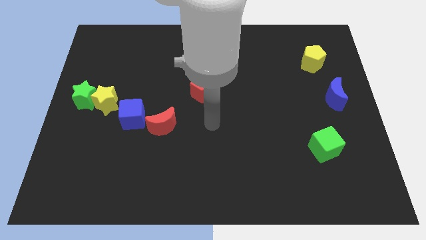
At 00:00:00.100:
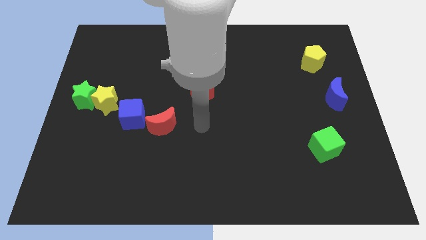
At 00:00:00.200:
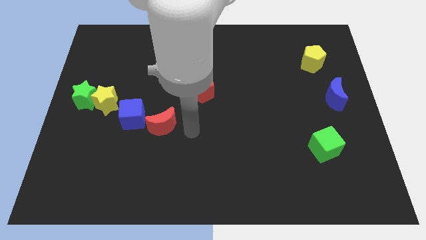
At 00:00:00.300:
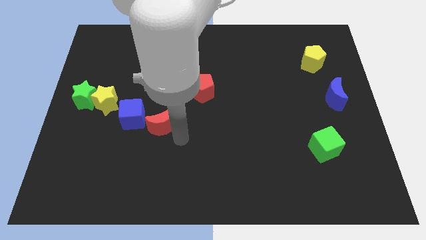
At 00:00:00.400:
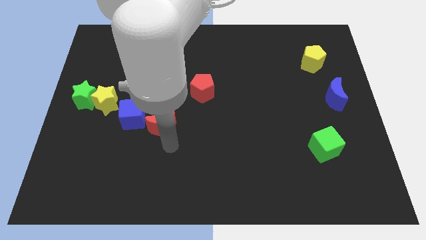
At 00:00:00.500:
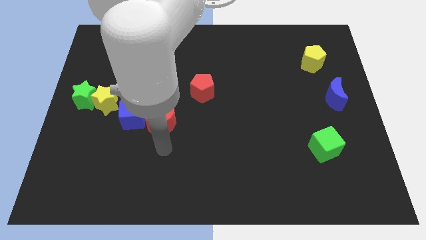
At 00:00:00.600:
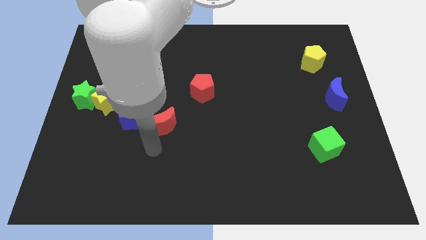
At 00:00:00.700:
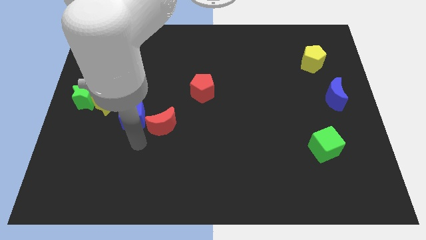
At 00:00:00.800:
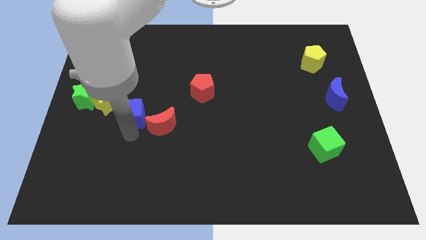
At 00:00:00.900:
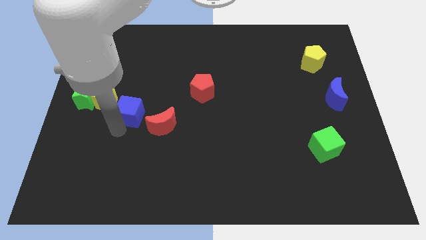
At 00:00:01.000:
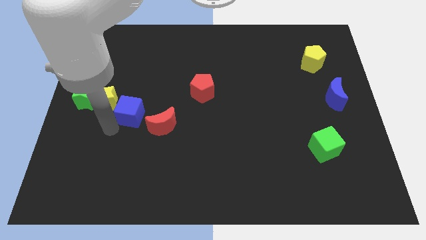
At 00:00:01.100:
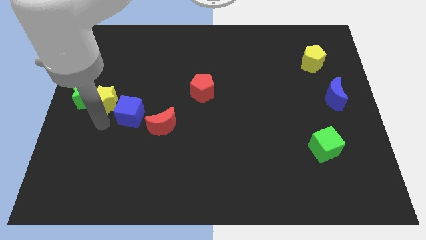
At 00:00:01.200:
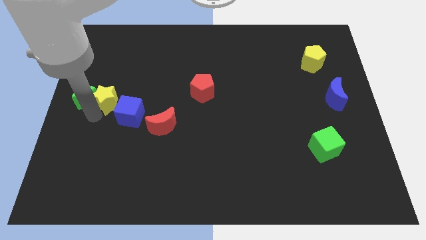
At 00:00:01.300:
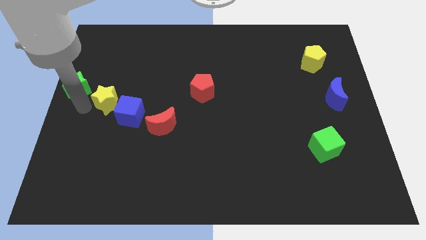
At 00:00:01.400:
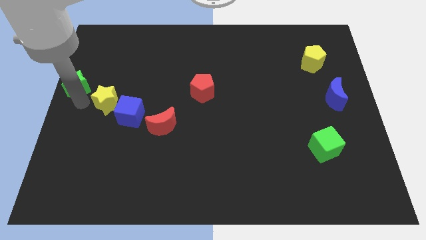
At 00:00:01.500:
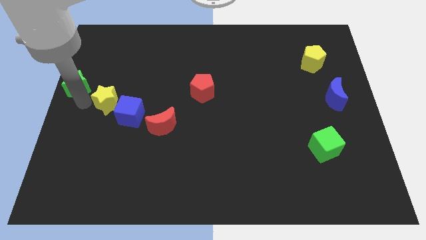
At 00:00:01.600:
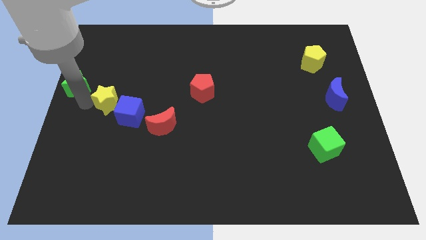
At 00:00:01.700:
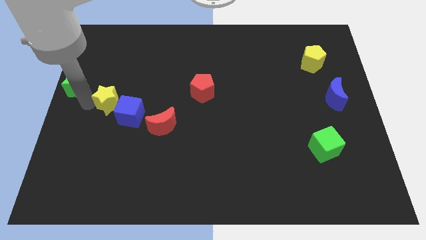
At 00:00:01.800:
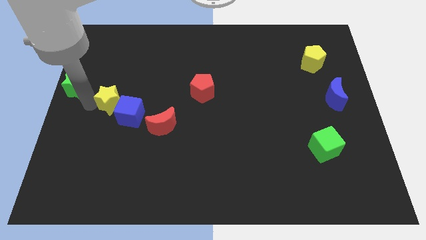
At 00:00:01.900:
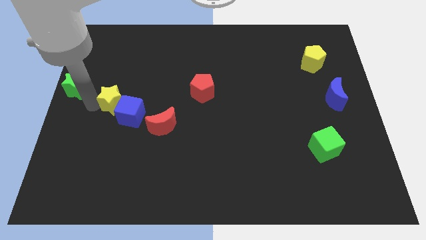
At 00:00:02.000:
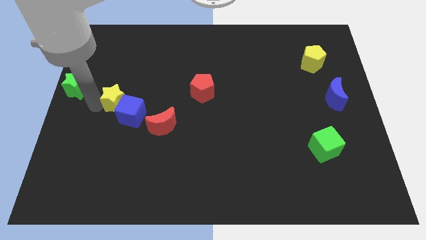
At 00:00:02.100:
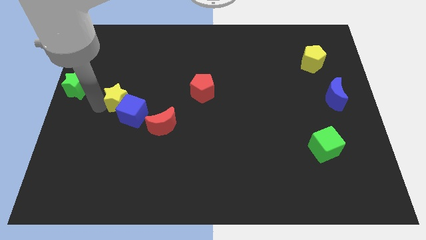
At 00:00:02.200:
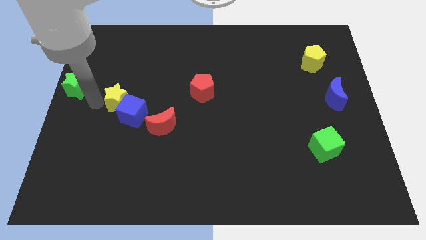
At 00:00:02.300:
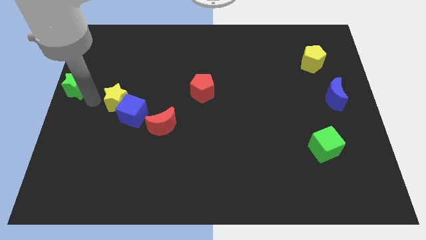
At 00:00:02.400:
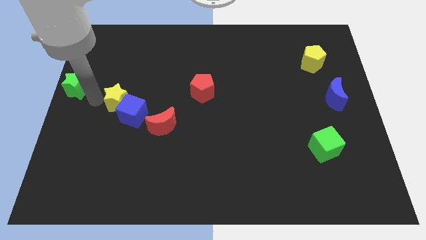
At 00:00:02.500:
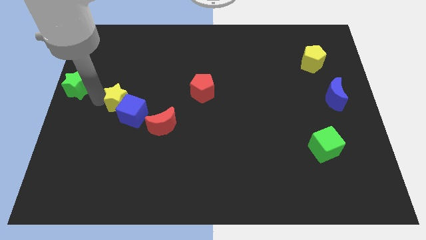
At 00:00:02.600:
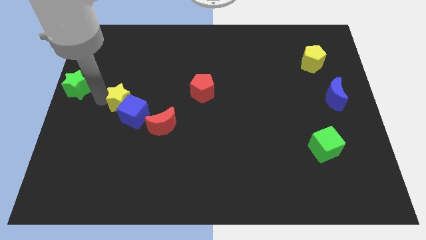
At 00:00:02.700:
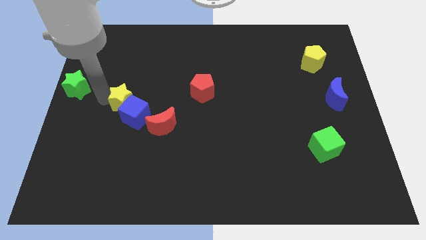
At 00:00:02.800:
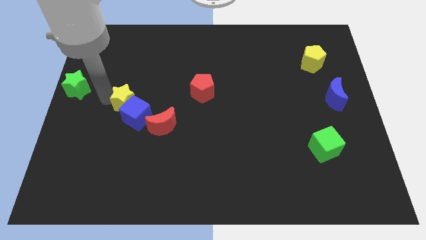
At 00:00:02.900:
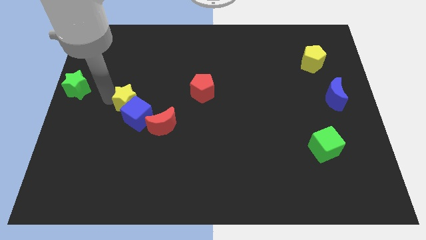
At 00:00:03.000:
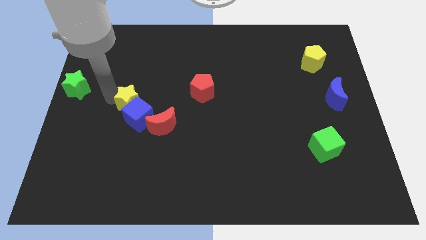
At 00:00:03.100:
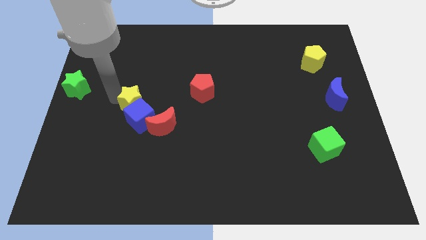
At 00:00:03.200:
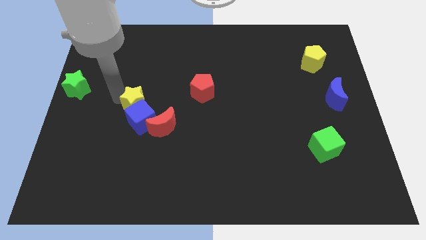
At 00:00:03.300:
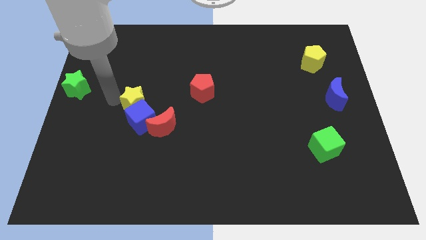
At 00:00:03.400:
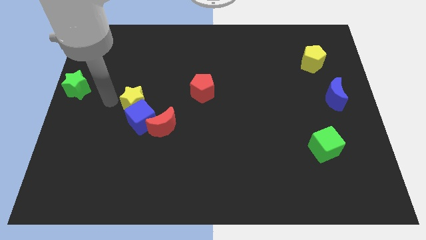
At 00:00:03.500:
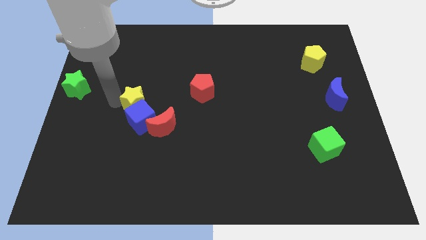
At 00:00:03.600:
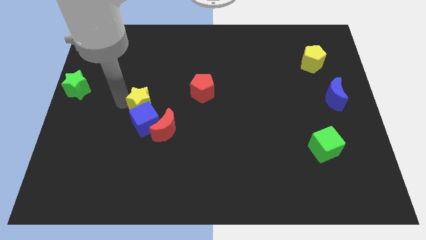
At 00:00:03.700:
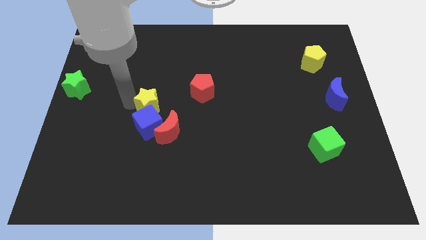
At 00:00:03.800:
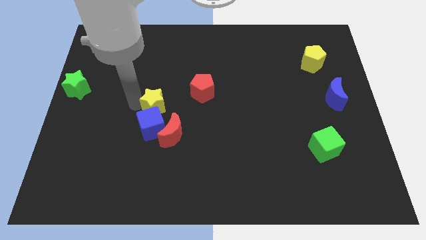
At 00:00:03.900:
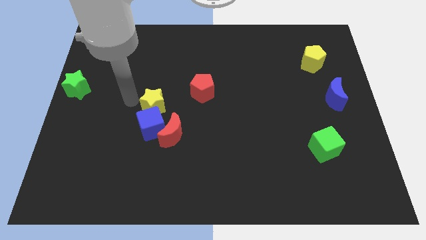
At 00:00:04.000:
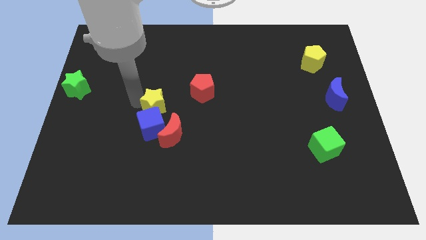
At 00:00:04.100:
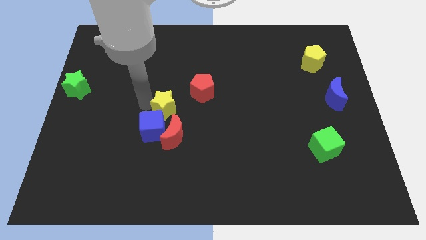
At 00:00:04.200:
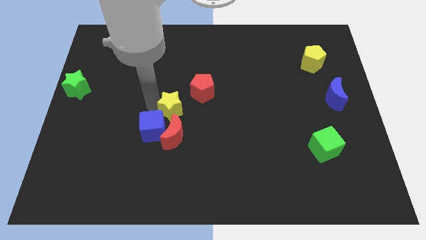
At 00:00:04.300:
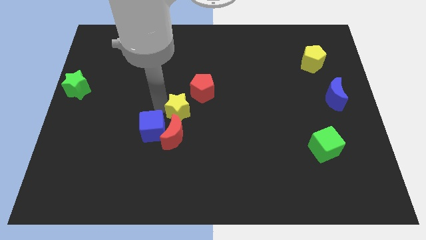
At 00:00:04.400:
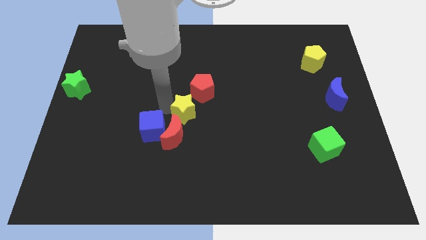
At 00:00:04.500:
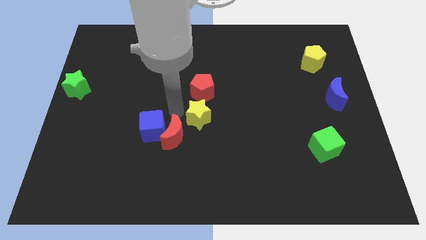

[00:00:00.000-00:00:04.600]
slide the yellow star right

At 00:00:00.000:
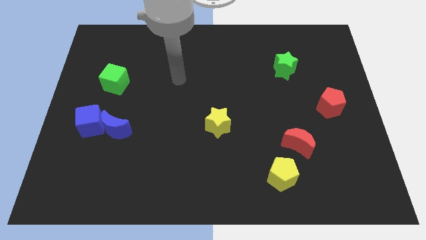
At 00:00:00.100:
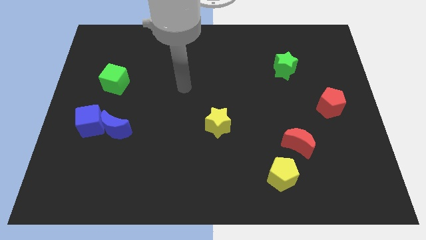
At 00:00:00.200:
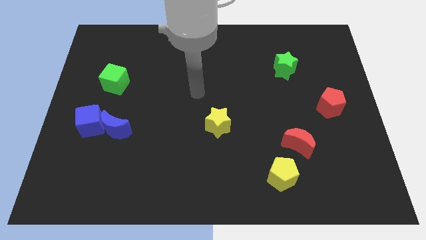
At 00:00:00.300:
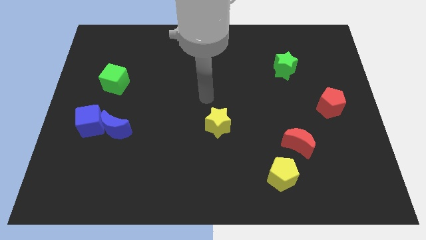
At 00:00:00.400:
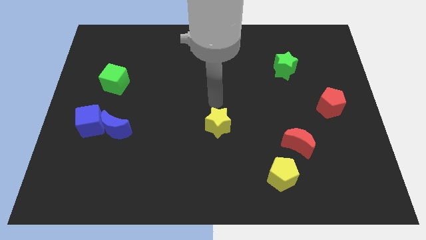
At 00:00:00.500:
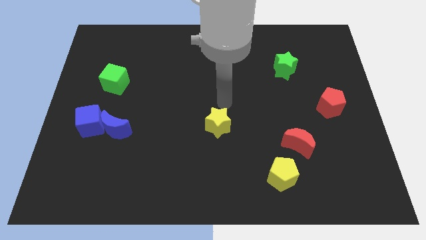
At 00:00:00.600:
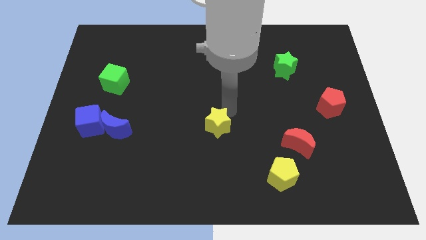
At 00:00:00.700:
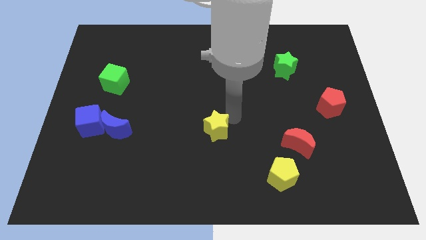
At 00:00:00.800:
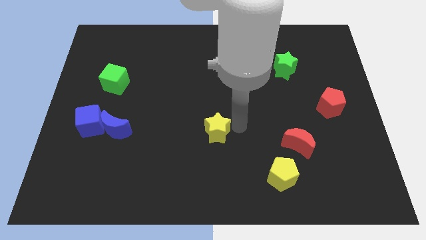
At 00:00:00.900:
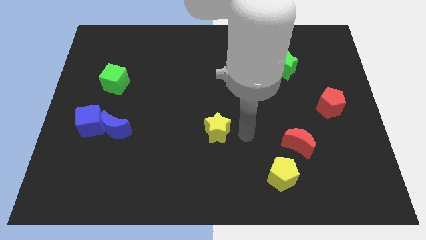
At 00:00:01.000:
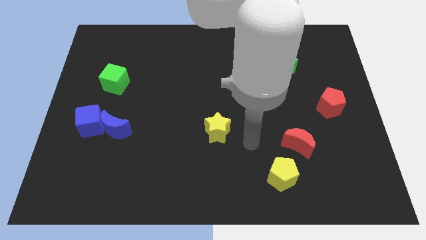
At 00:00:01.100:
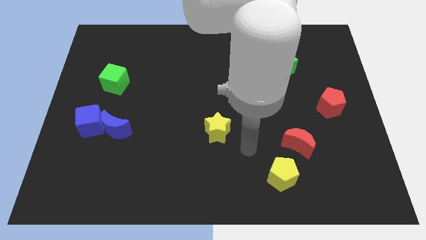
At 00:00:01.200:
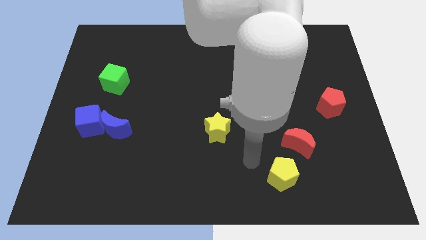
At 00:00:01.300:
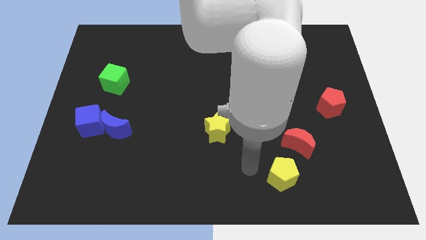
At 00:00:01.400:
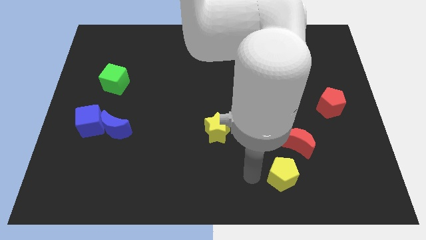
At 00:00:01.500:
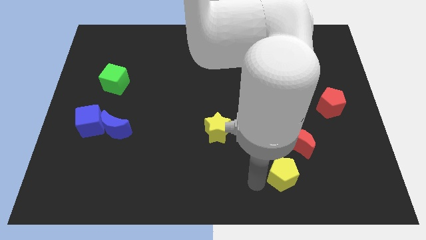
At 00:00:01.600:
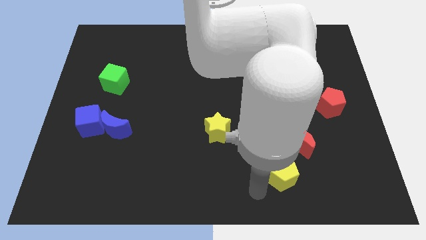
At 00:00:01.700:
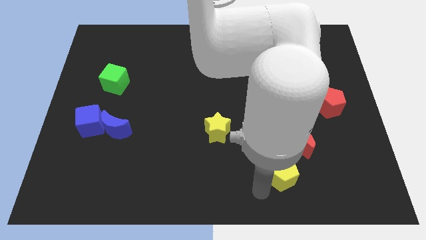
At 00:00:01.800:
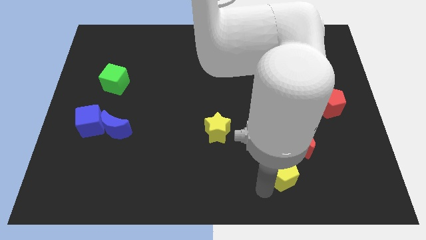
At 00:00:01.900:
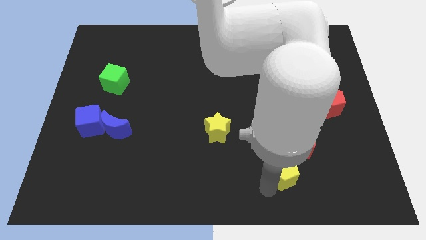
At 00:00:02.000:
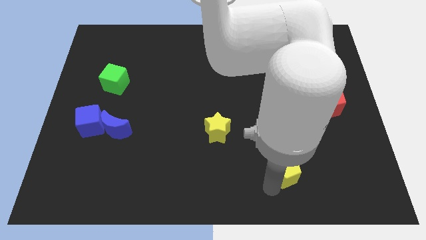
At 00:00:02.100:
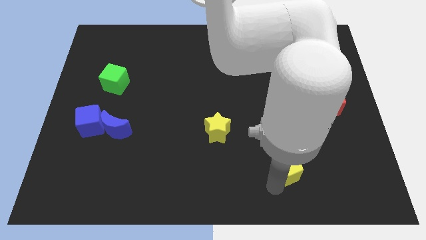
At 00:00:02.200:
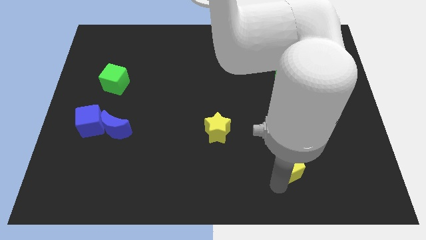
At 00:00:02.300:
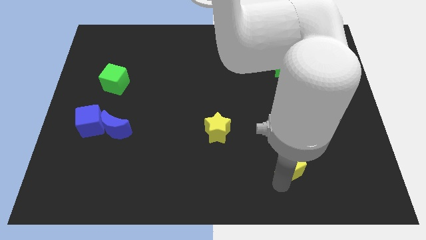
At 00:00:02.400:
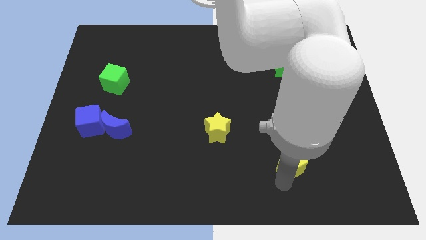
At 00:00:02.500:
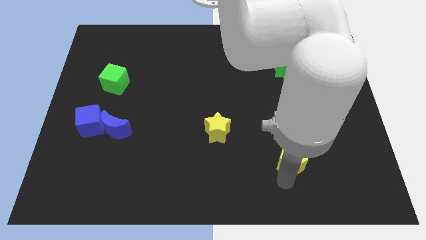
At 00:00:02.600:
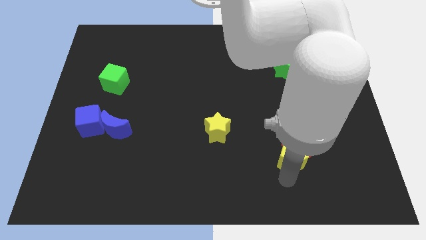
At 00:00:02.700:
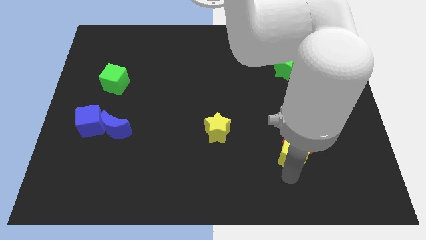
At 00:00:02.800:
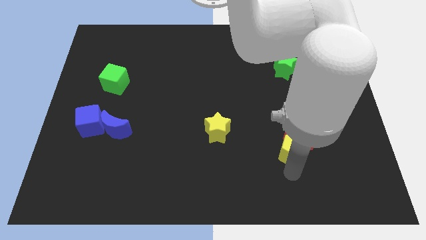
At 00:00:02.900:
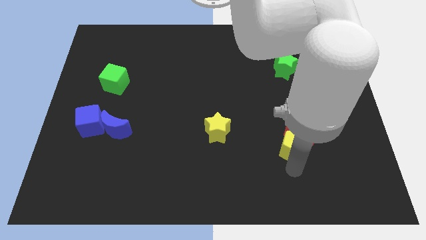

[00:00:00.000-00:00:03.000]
push the yellow pentagon upwards and right diagonally somewhat

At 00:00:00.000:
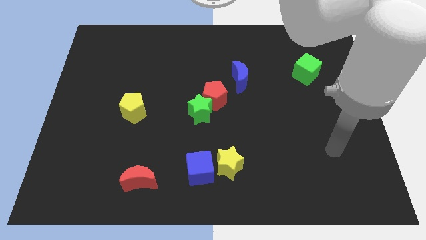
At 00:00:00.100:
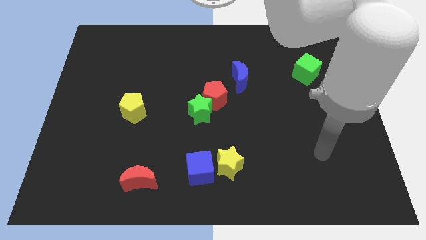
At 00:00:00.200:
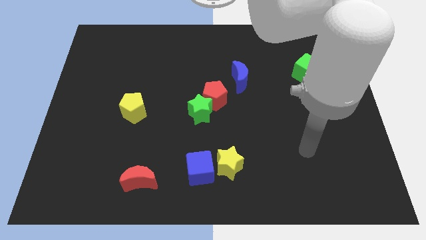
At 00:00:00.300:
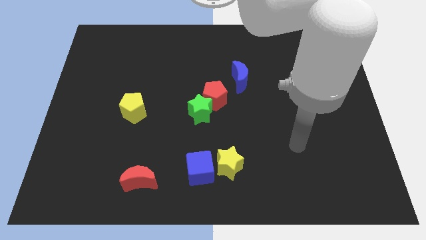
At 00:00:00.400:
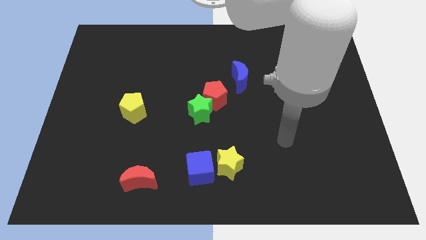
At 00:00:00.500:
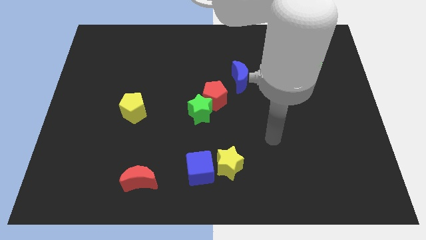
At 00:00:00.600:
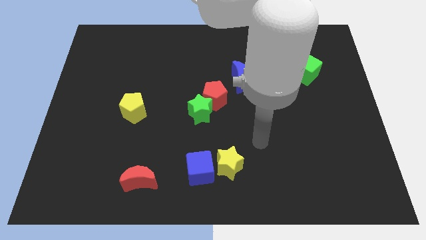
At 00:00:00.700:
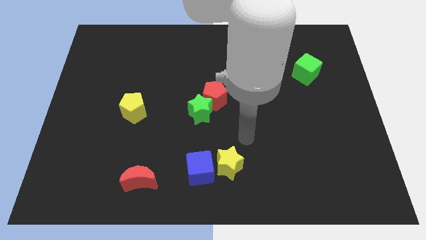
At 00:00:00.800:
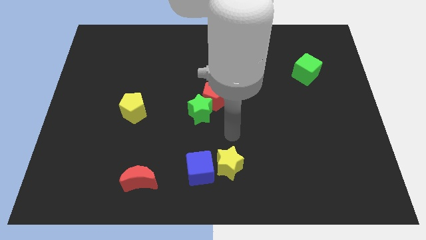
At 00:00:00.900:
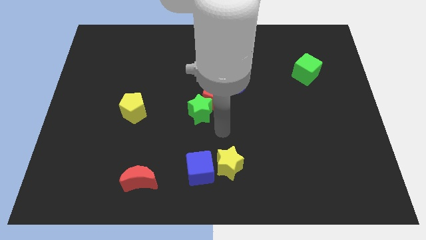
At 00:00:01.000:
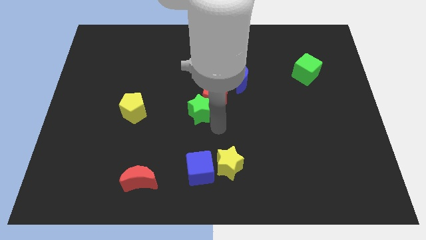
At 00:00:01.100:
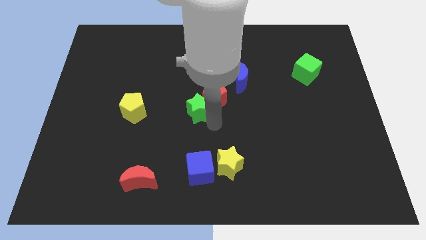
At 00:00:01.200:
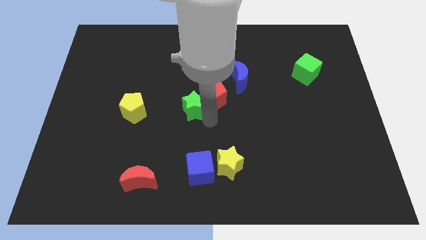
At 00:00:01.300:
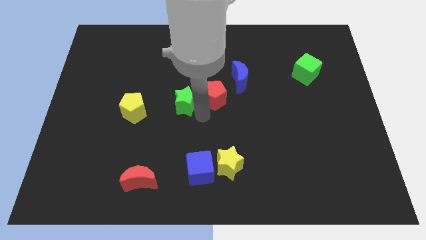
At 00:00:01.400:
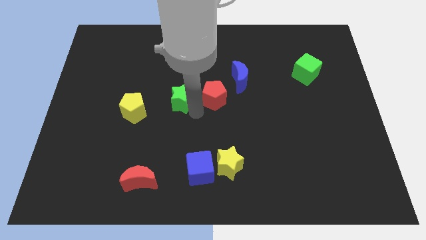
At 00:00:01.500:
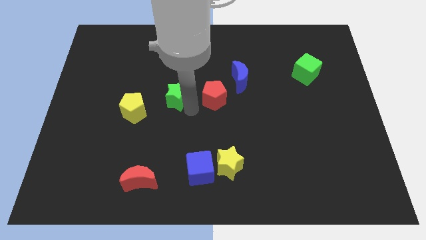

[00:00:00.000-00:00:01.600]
push the green star upwards and to the left a little bit
